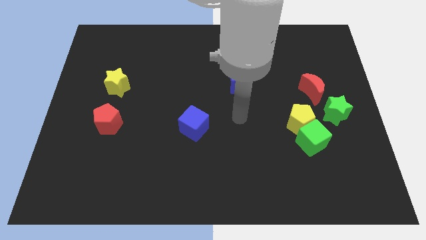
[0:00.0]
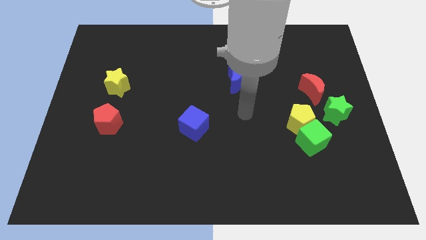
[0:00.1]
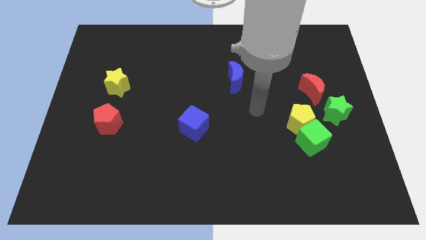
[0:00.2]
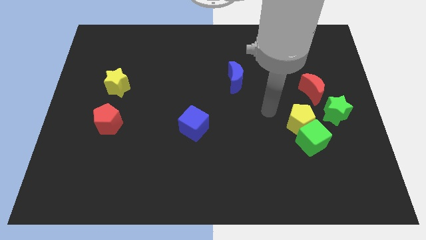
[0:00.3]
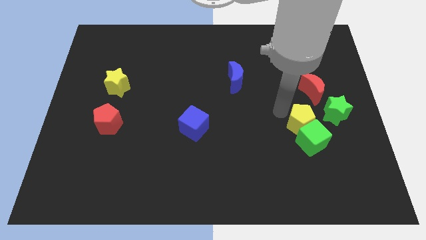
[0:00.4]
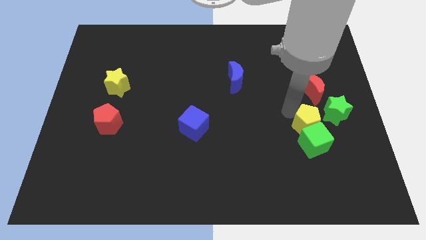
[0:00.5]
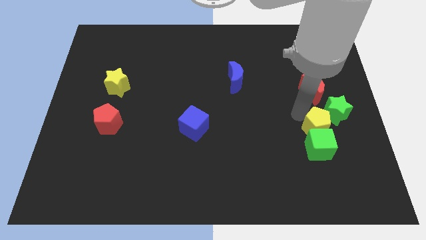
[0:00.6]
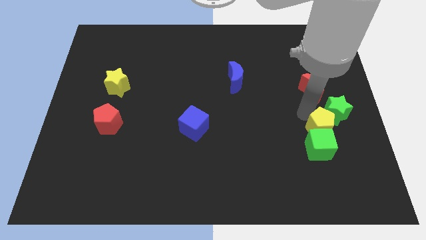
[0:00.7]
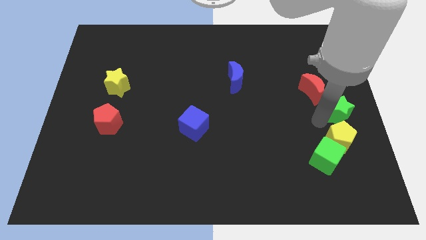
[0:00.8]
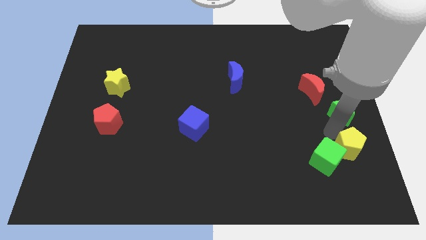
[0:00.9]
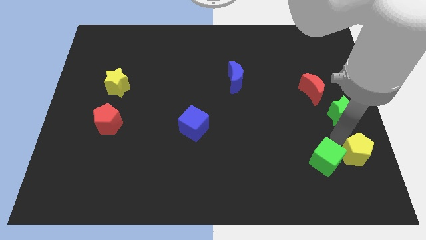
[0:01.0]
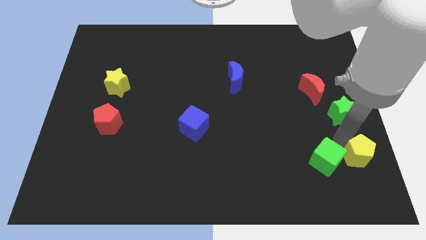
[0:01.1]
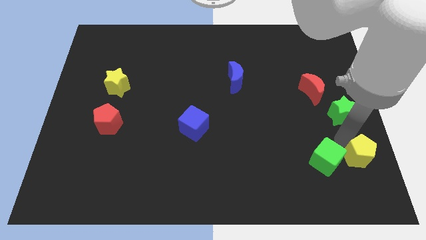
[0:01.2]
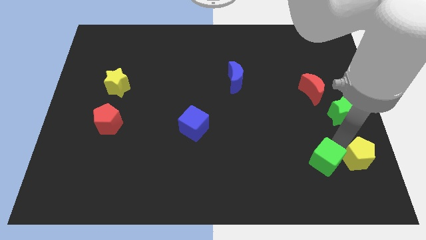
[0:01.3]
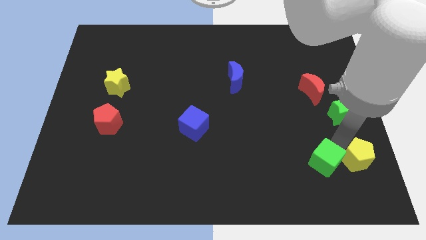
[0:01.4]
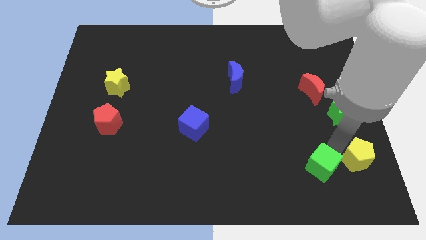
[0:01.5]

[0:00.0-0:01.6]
move the green cube away from the yellow pentagon and green star

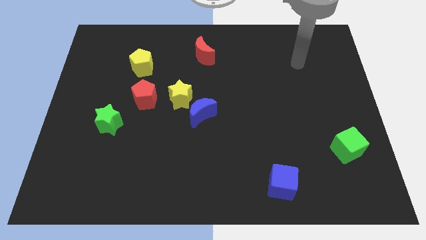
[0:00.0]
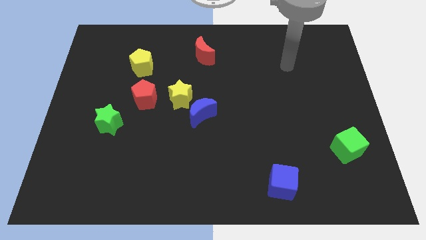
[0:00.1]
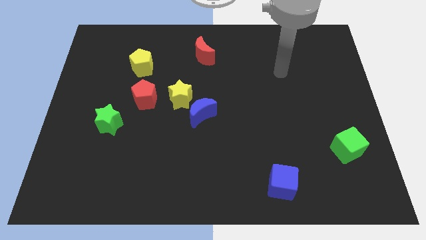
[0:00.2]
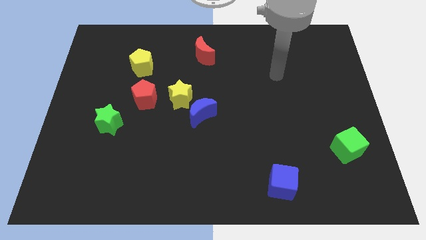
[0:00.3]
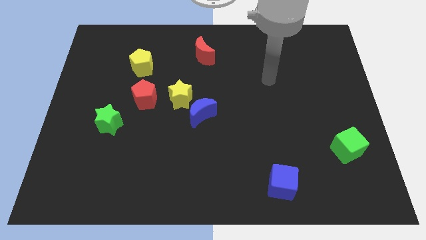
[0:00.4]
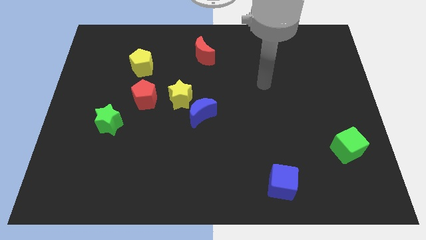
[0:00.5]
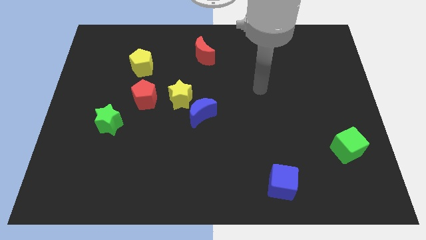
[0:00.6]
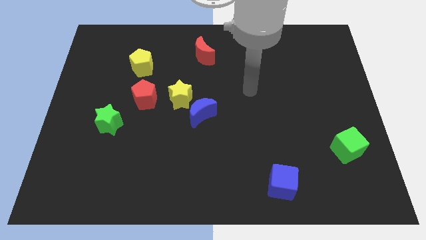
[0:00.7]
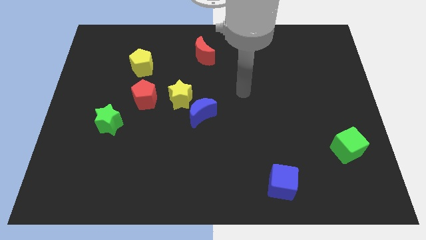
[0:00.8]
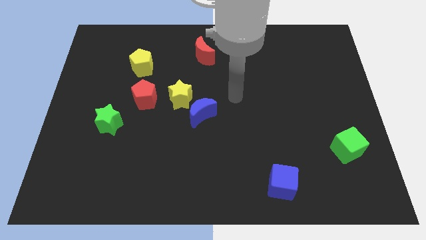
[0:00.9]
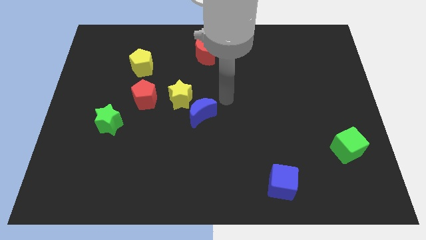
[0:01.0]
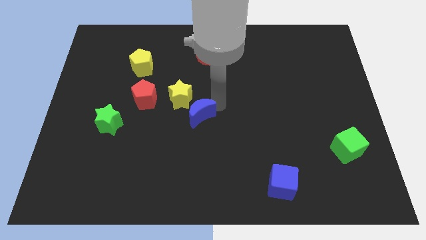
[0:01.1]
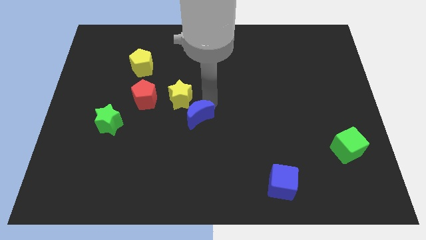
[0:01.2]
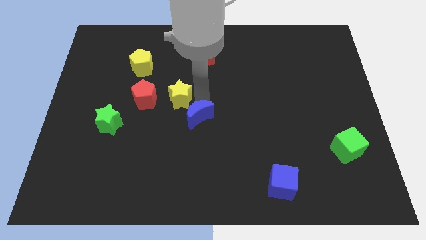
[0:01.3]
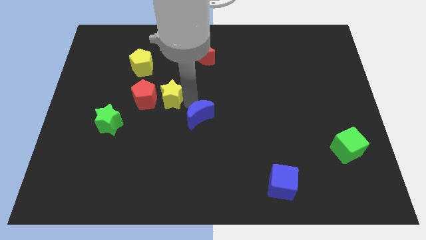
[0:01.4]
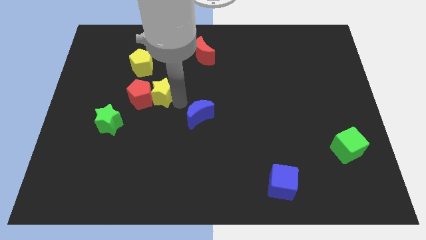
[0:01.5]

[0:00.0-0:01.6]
pull the blue moon apart from the yellow star

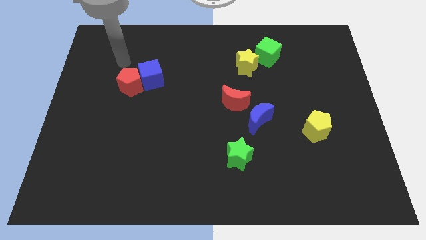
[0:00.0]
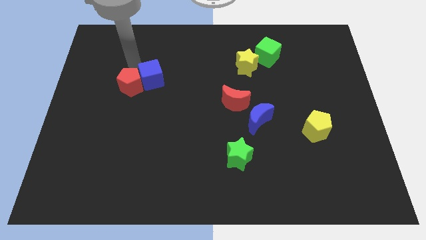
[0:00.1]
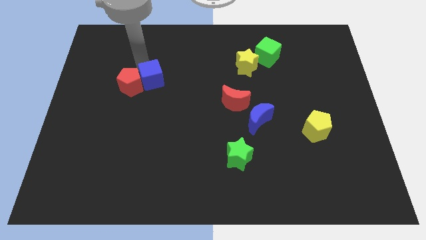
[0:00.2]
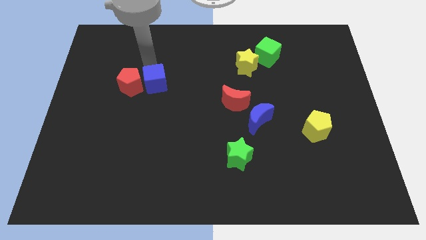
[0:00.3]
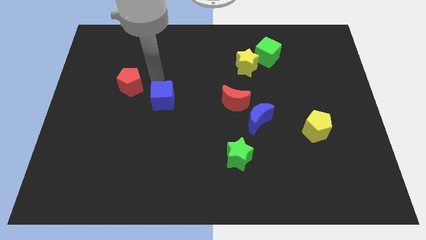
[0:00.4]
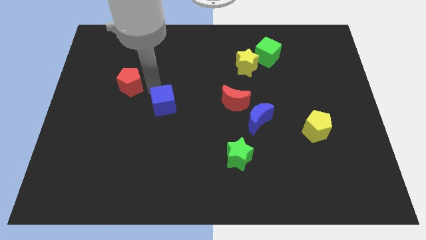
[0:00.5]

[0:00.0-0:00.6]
pull the red pentagon apart from the blue cube

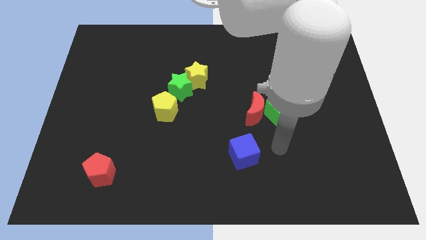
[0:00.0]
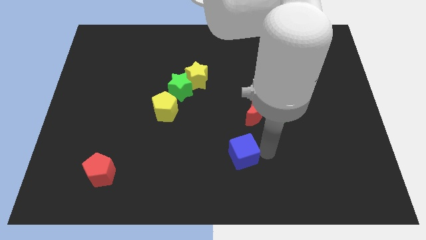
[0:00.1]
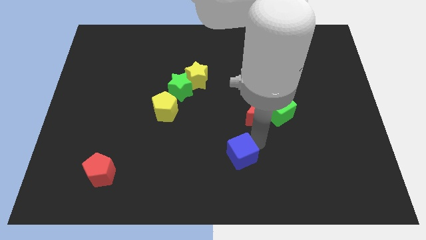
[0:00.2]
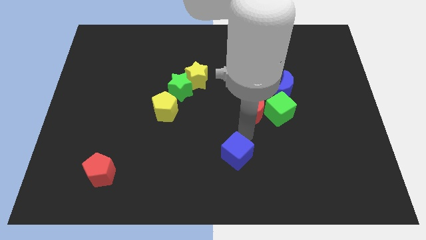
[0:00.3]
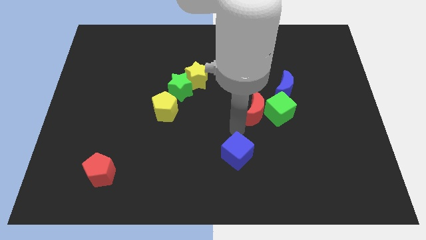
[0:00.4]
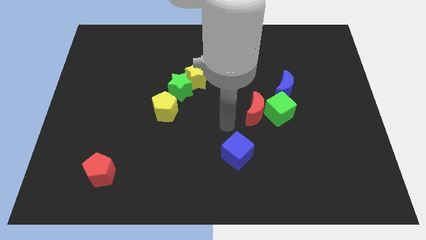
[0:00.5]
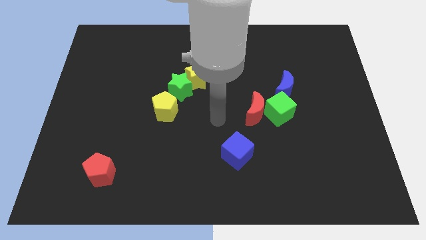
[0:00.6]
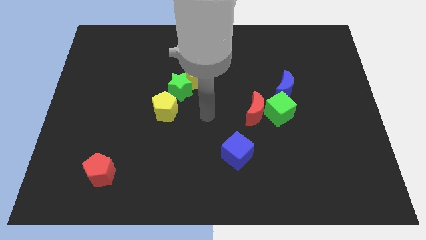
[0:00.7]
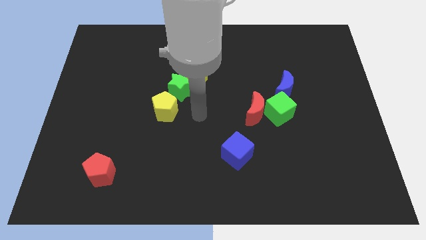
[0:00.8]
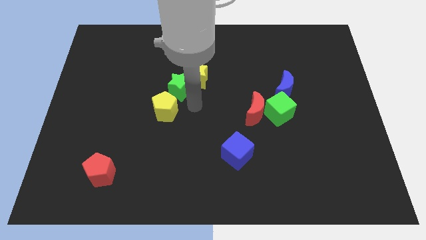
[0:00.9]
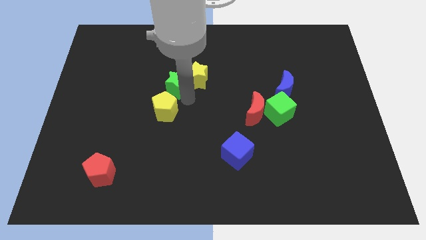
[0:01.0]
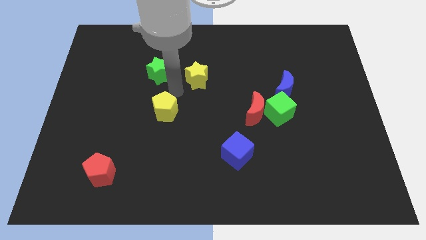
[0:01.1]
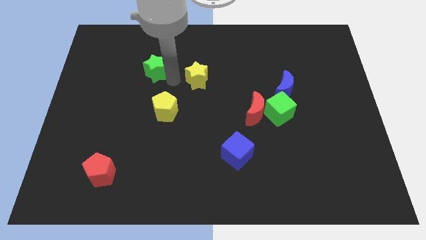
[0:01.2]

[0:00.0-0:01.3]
separate the yellow star from the green star

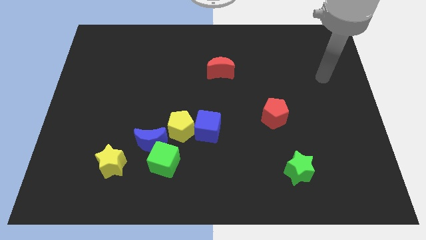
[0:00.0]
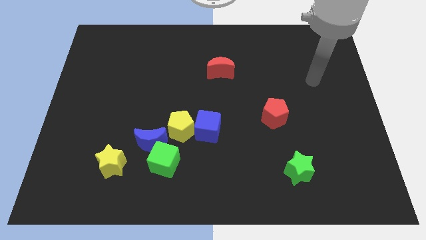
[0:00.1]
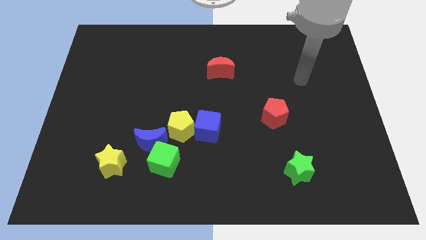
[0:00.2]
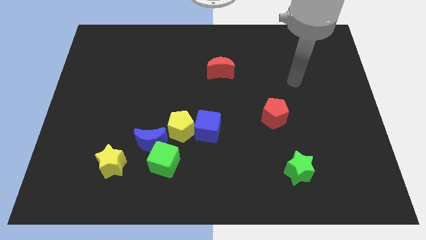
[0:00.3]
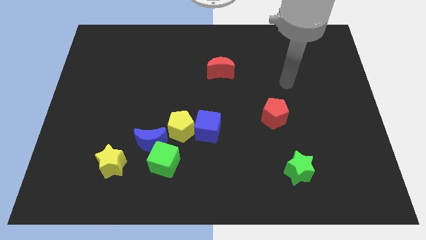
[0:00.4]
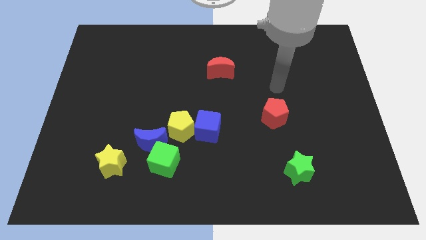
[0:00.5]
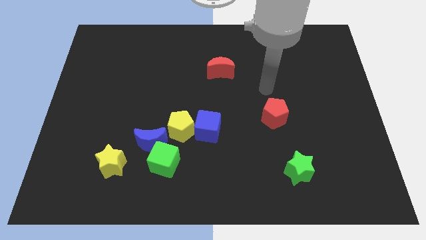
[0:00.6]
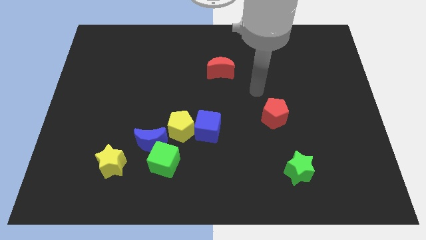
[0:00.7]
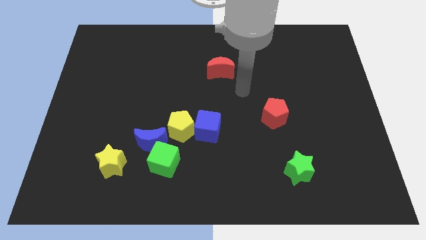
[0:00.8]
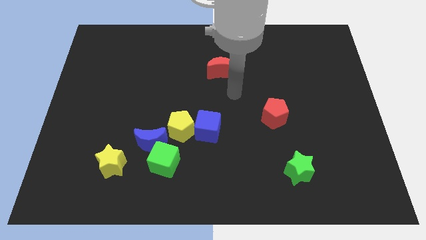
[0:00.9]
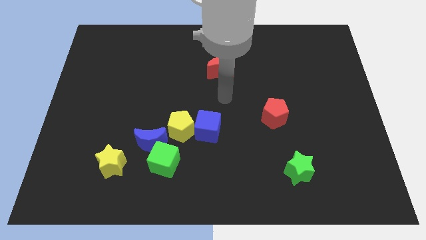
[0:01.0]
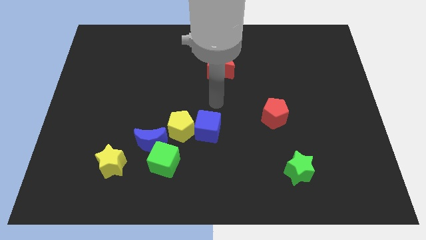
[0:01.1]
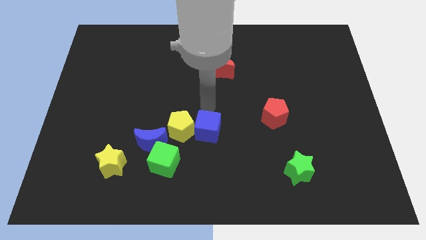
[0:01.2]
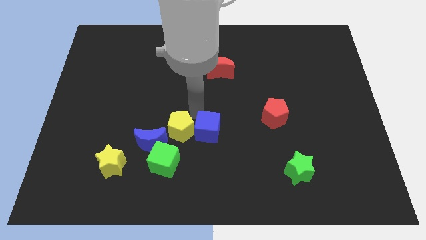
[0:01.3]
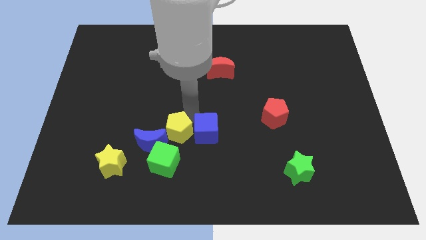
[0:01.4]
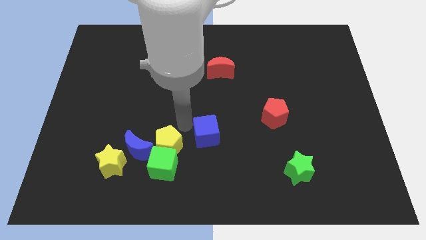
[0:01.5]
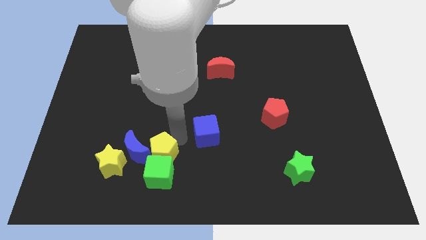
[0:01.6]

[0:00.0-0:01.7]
move the blue cube away from the yellow pentagon

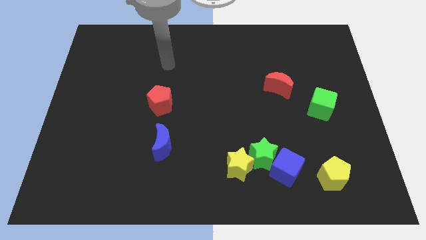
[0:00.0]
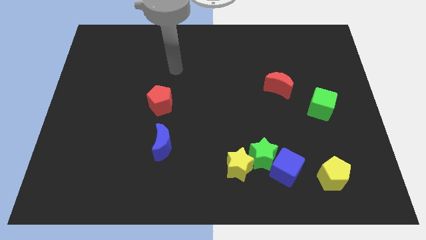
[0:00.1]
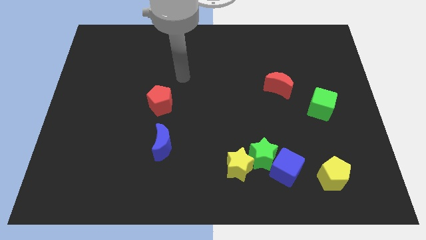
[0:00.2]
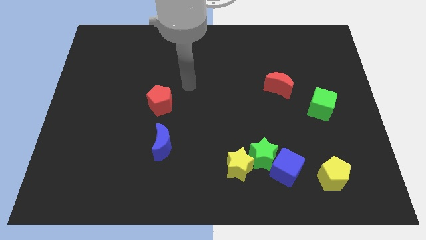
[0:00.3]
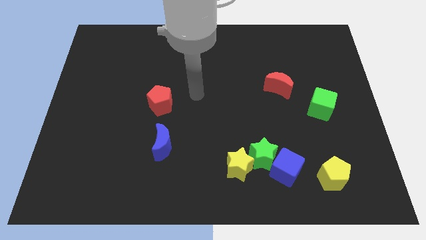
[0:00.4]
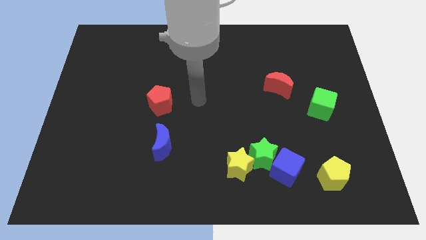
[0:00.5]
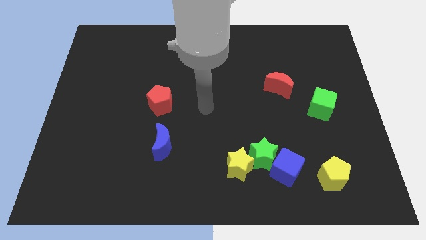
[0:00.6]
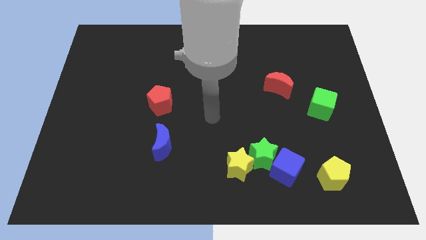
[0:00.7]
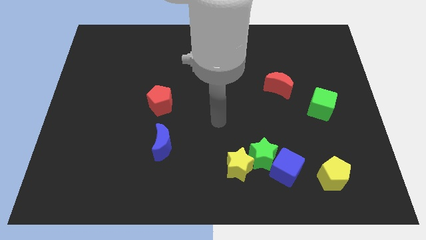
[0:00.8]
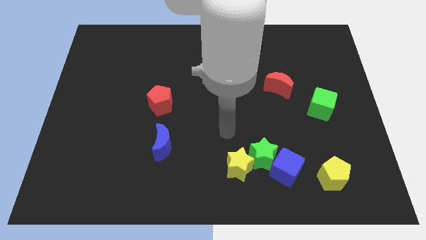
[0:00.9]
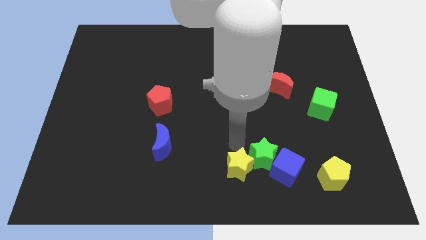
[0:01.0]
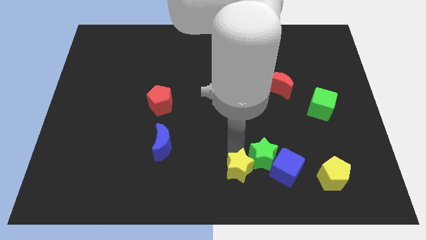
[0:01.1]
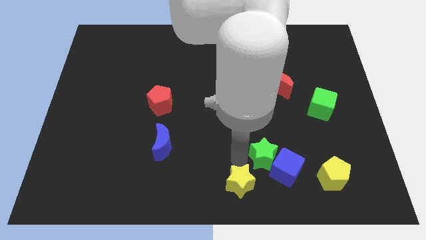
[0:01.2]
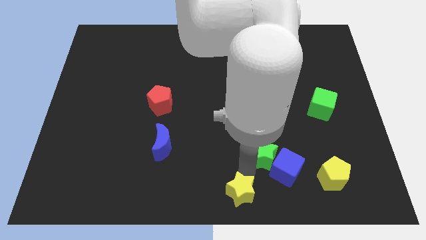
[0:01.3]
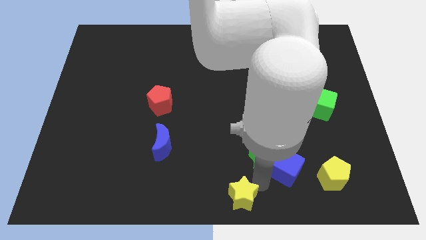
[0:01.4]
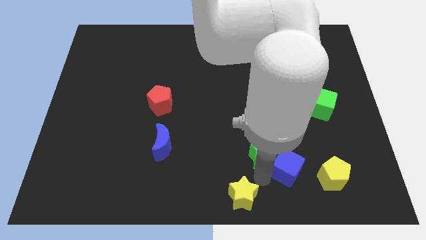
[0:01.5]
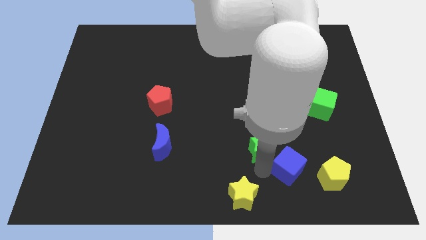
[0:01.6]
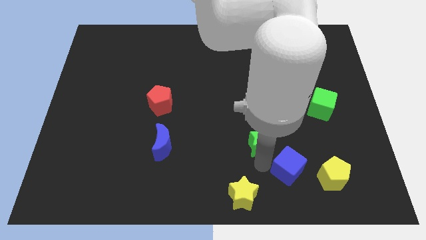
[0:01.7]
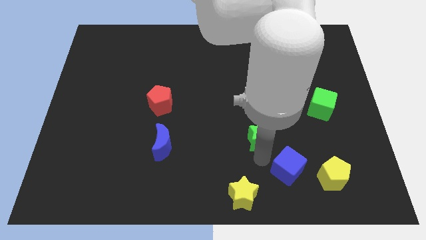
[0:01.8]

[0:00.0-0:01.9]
separate the green star from the blue cube and yellow star

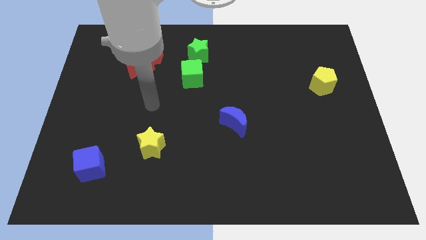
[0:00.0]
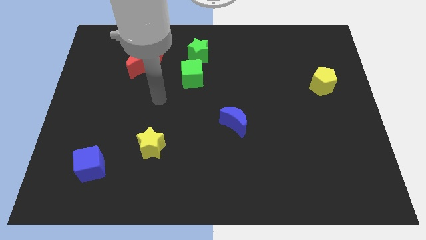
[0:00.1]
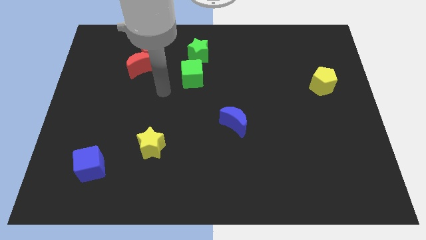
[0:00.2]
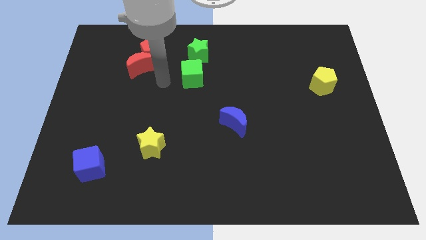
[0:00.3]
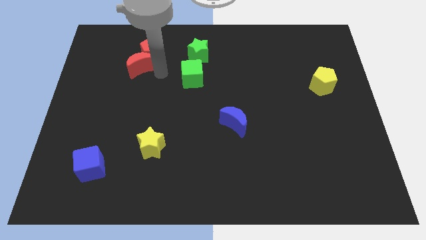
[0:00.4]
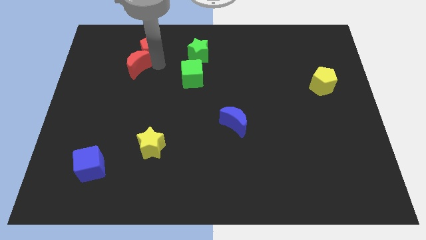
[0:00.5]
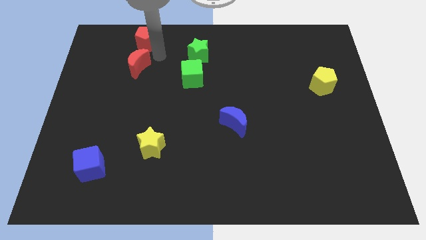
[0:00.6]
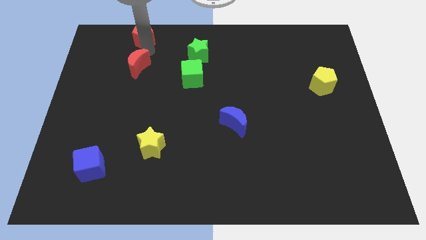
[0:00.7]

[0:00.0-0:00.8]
move the red moon away from the red pentagon
